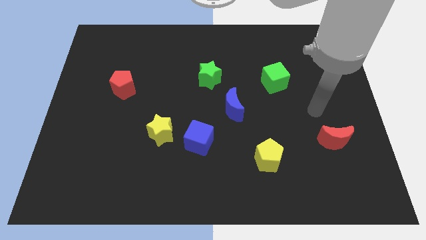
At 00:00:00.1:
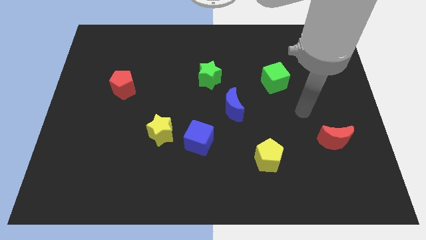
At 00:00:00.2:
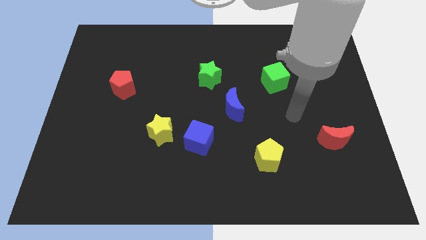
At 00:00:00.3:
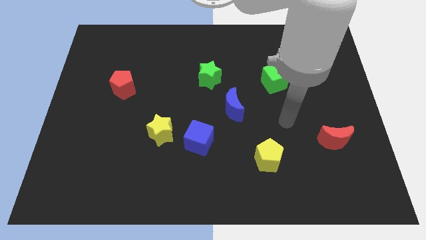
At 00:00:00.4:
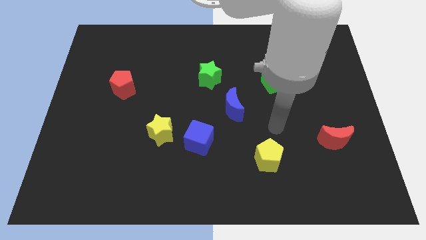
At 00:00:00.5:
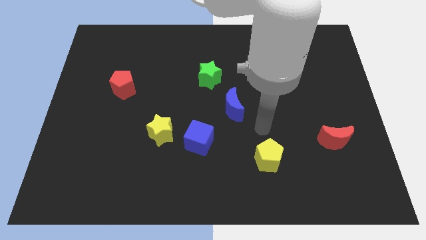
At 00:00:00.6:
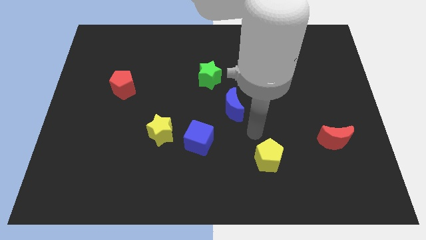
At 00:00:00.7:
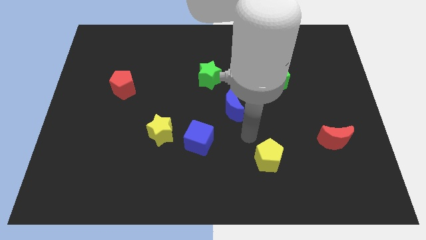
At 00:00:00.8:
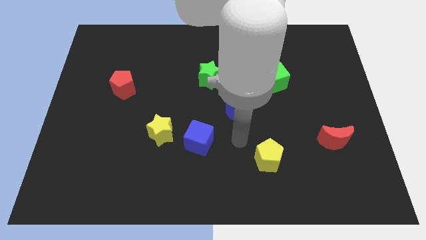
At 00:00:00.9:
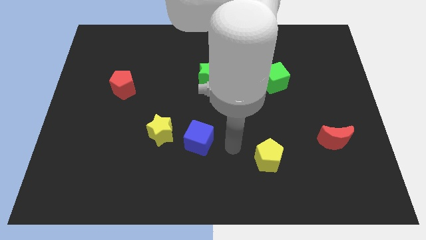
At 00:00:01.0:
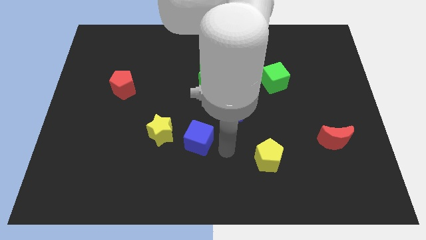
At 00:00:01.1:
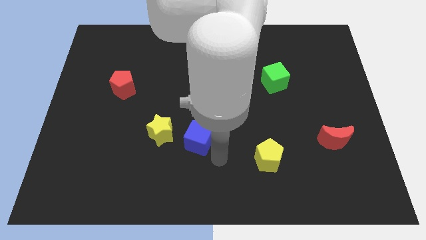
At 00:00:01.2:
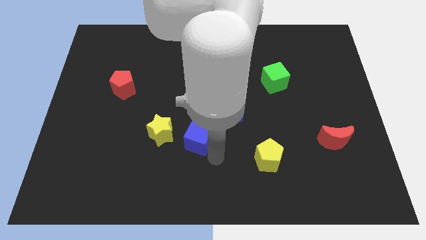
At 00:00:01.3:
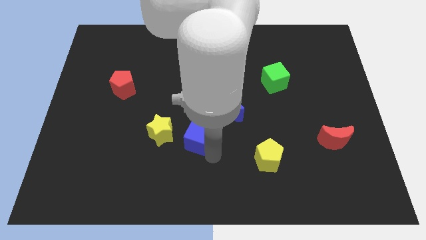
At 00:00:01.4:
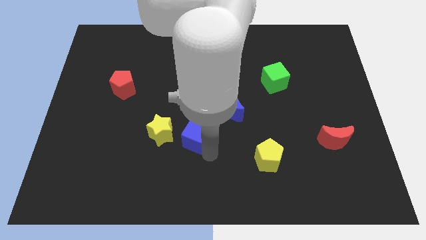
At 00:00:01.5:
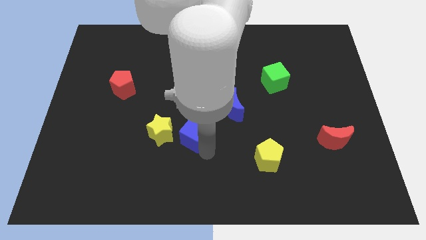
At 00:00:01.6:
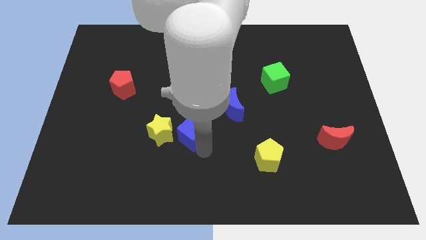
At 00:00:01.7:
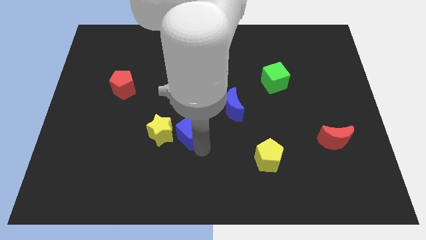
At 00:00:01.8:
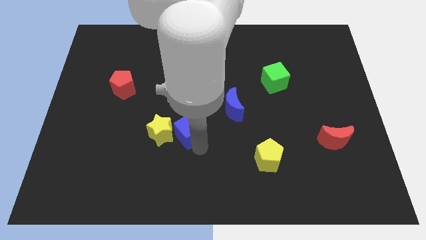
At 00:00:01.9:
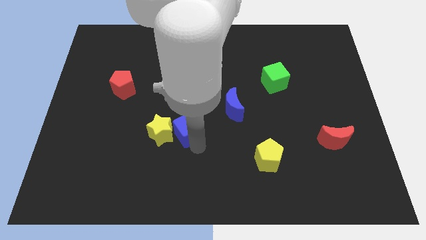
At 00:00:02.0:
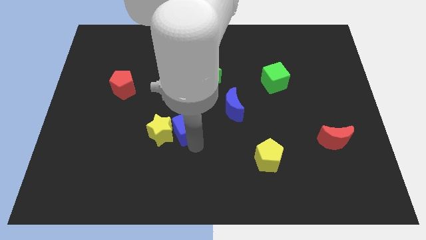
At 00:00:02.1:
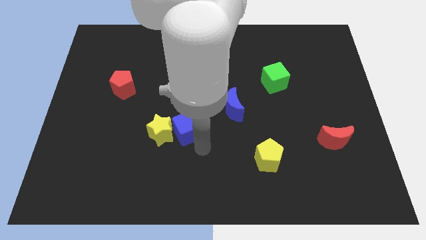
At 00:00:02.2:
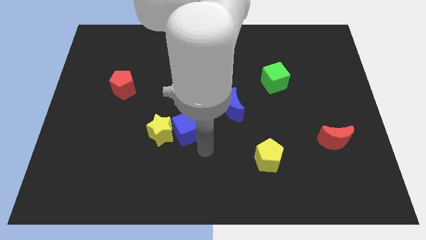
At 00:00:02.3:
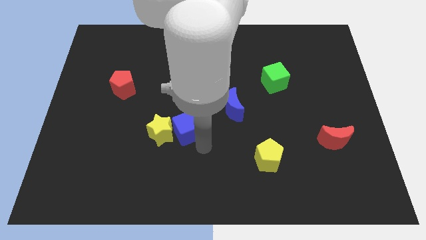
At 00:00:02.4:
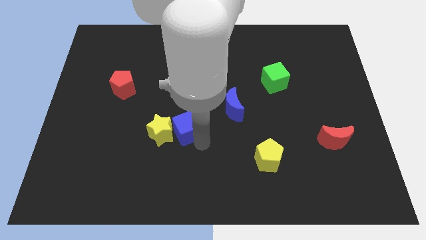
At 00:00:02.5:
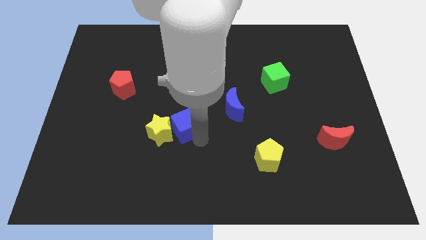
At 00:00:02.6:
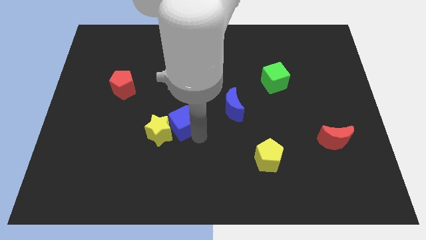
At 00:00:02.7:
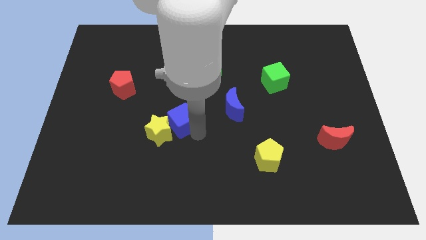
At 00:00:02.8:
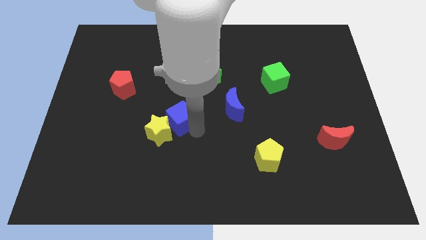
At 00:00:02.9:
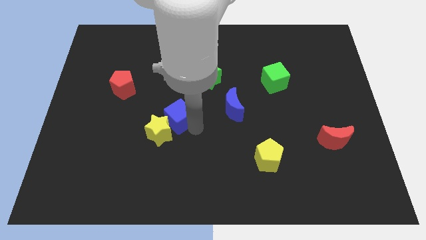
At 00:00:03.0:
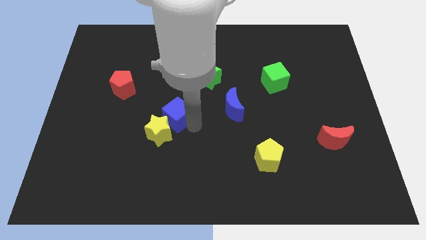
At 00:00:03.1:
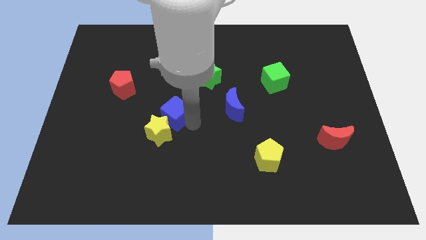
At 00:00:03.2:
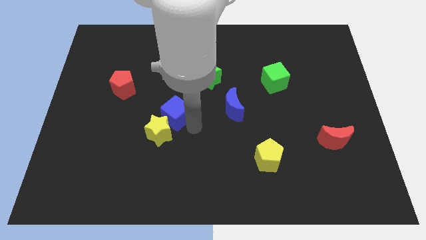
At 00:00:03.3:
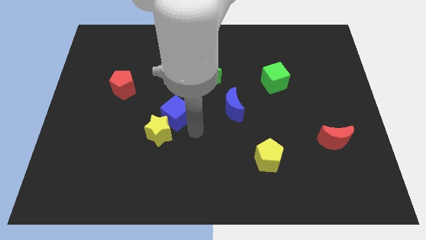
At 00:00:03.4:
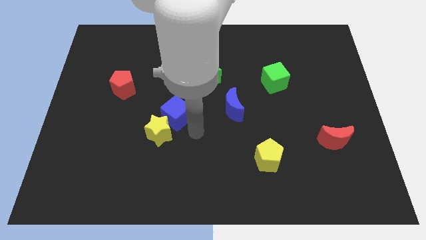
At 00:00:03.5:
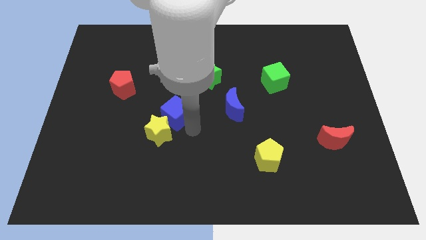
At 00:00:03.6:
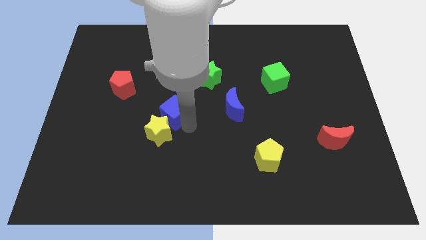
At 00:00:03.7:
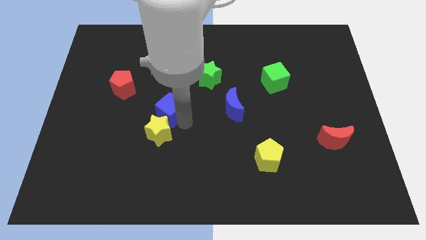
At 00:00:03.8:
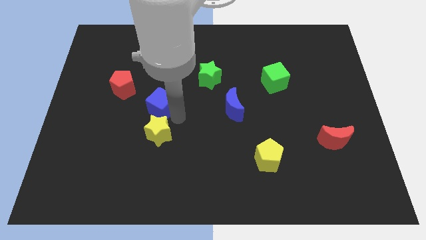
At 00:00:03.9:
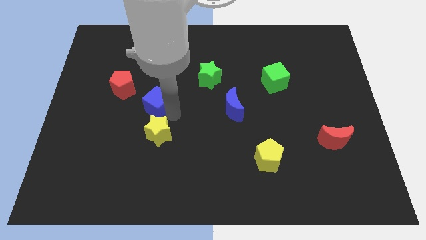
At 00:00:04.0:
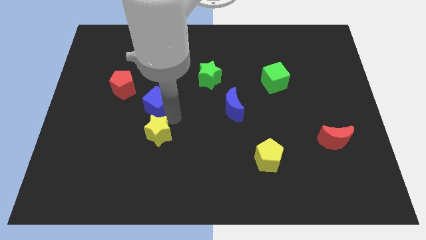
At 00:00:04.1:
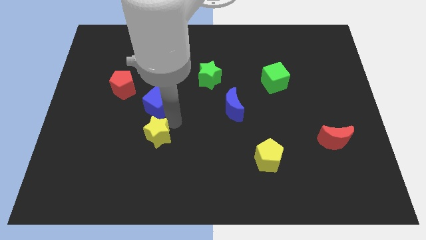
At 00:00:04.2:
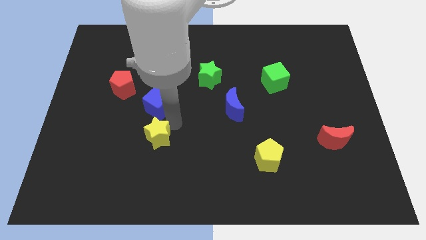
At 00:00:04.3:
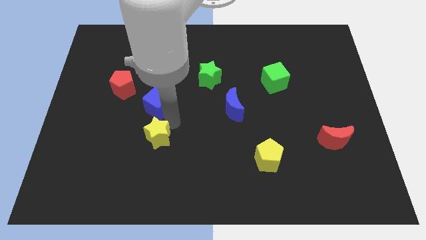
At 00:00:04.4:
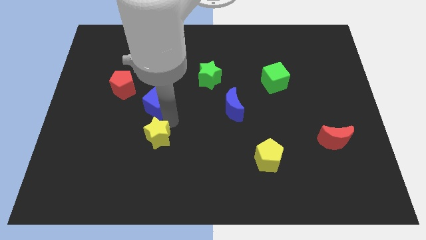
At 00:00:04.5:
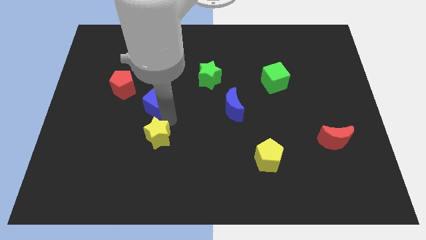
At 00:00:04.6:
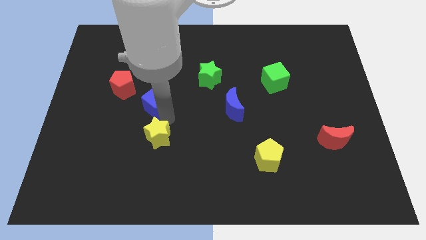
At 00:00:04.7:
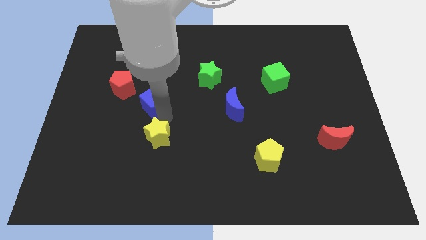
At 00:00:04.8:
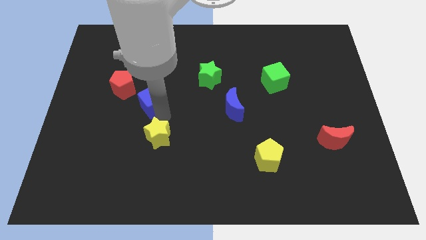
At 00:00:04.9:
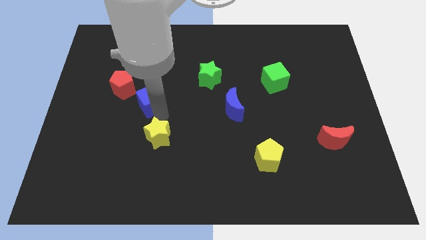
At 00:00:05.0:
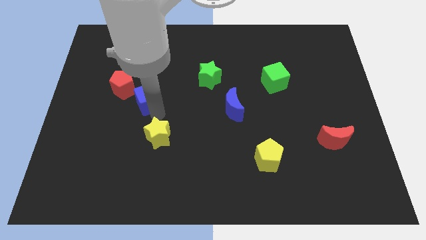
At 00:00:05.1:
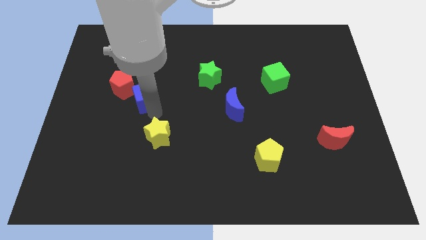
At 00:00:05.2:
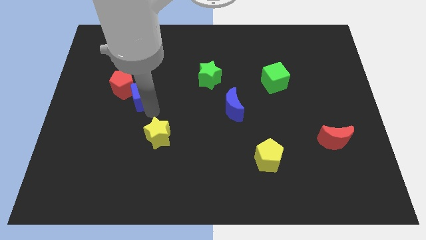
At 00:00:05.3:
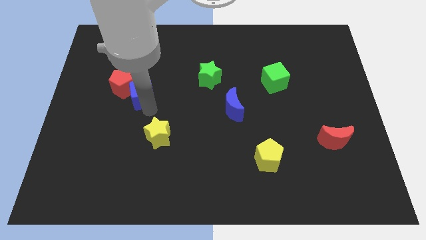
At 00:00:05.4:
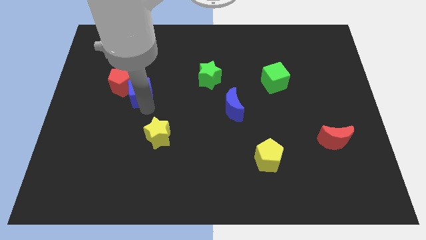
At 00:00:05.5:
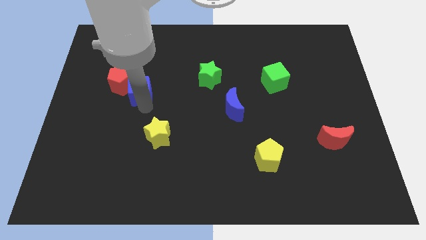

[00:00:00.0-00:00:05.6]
move the blue cube up and to the left diagonally

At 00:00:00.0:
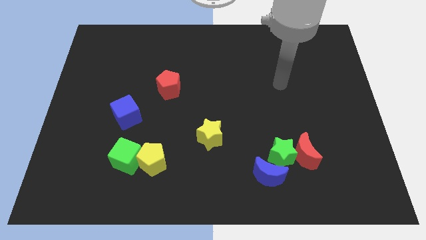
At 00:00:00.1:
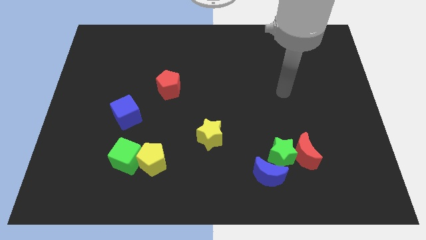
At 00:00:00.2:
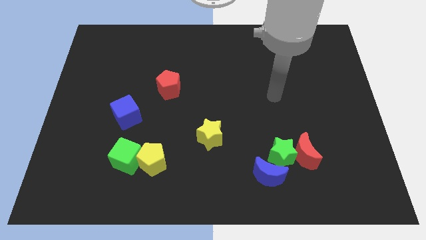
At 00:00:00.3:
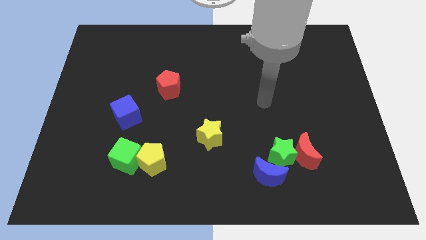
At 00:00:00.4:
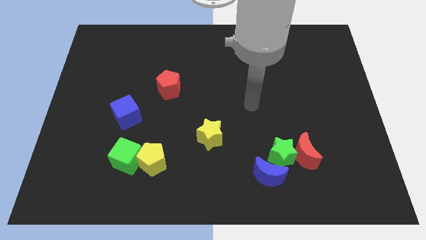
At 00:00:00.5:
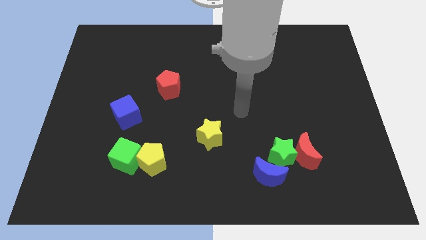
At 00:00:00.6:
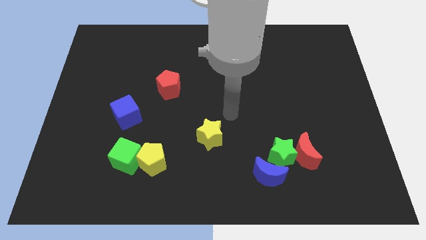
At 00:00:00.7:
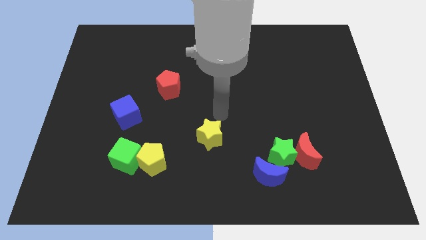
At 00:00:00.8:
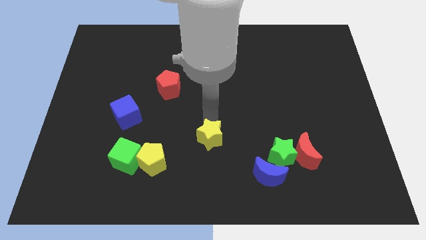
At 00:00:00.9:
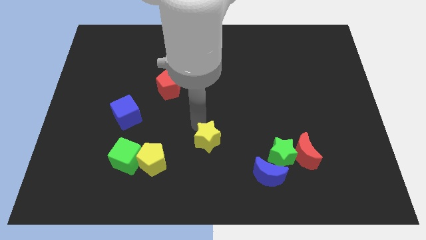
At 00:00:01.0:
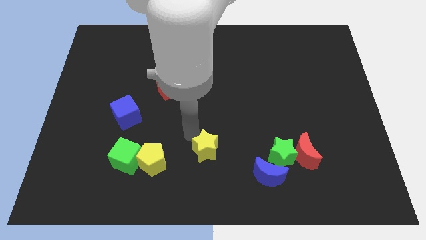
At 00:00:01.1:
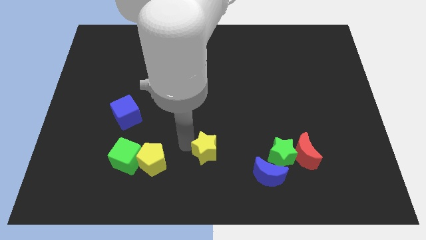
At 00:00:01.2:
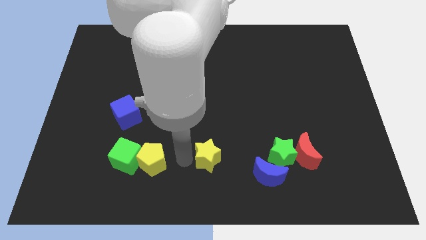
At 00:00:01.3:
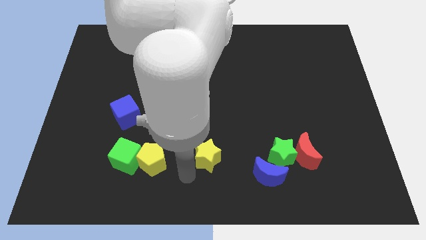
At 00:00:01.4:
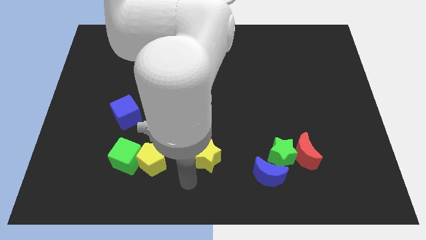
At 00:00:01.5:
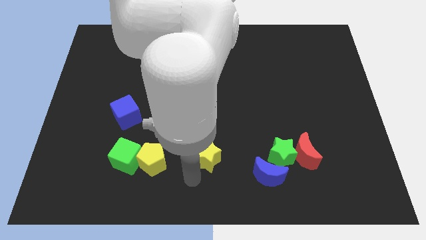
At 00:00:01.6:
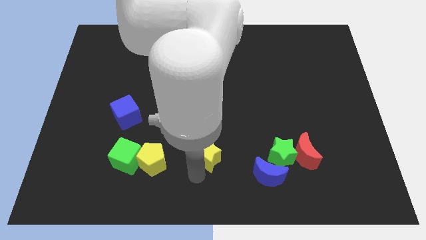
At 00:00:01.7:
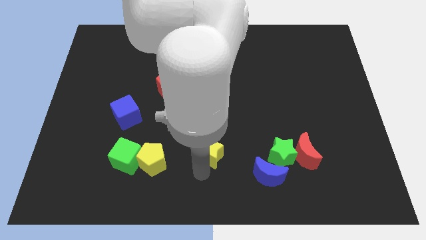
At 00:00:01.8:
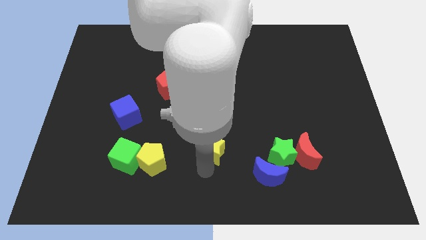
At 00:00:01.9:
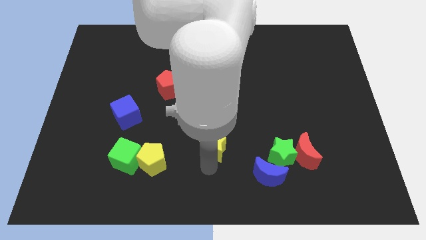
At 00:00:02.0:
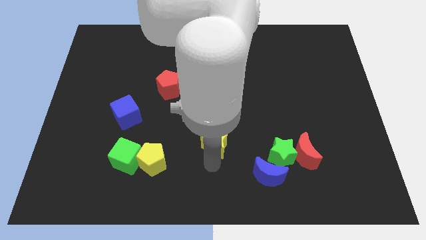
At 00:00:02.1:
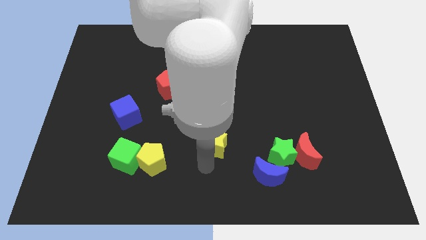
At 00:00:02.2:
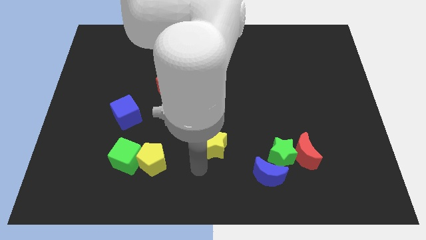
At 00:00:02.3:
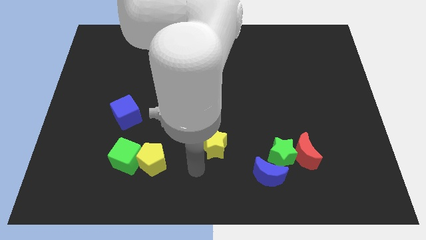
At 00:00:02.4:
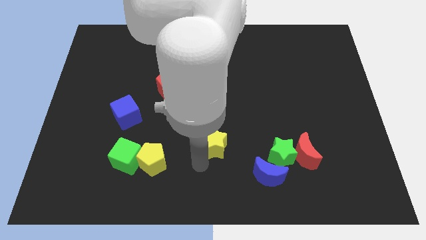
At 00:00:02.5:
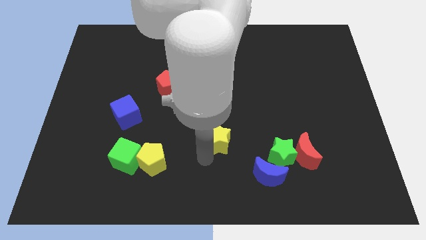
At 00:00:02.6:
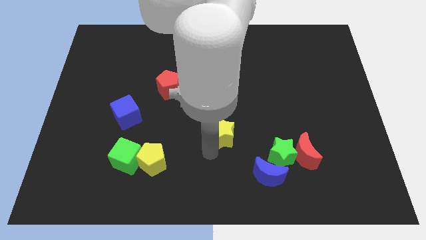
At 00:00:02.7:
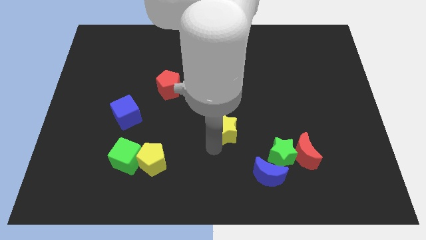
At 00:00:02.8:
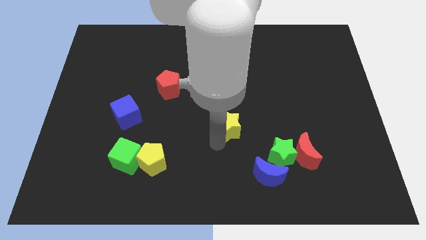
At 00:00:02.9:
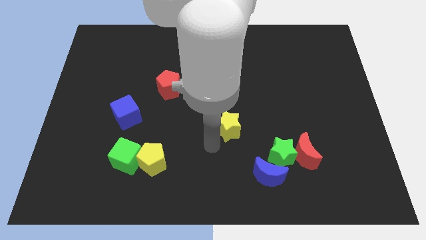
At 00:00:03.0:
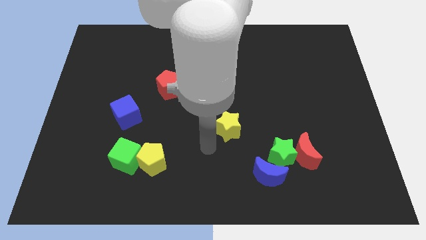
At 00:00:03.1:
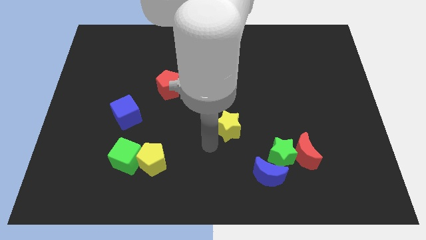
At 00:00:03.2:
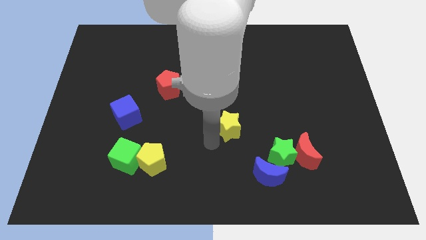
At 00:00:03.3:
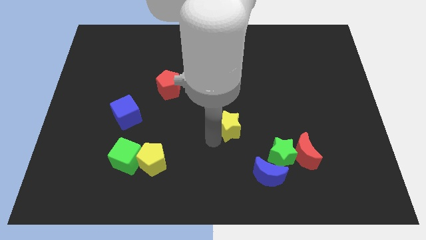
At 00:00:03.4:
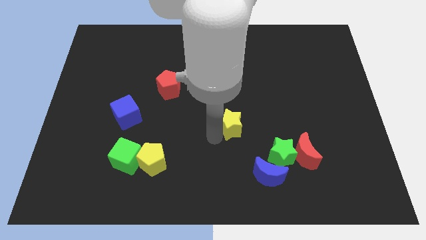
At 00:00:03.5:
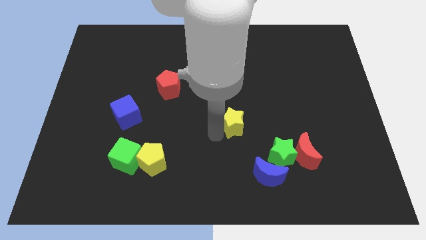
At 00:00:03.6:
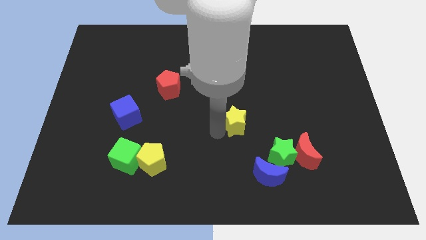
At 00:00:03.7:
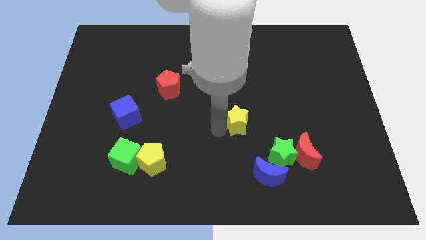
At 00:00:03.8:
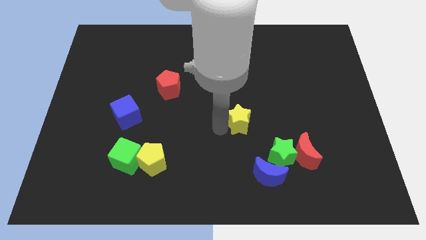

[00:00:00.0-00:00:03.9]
slightly slide the yellow star upwards and right diagonally
